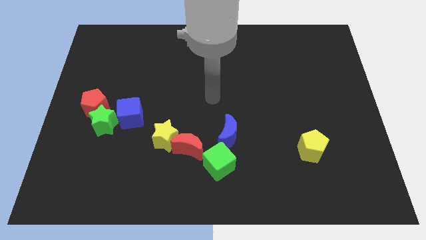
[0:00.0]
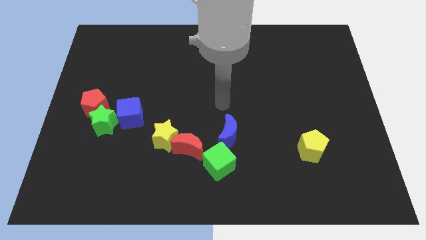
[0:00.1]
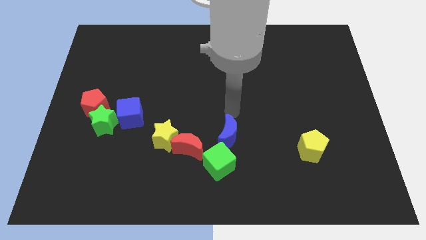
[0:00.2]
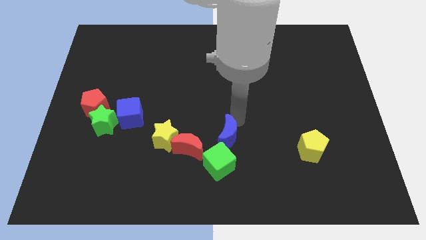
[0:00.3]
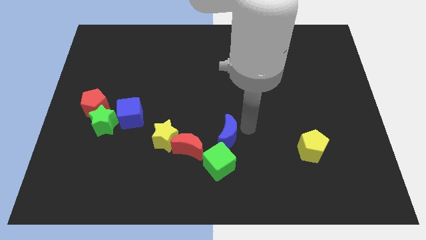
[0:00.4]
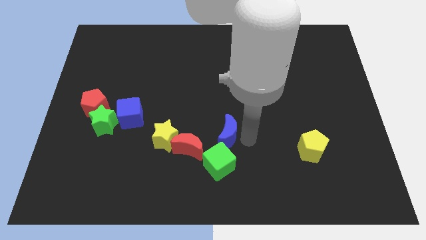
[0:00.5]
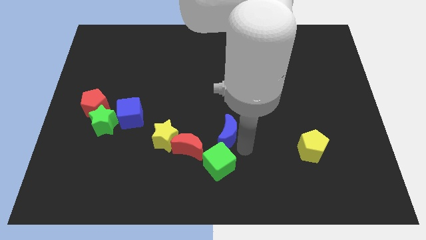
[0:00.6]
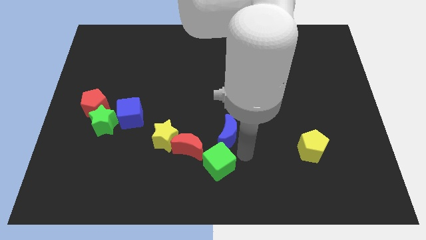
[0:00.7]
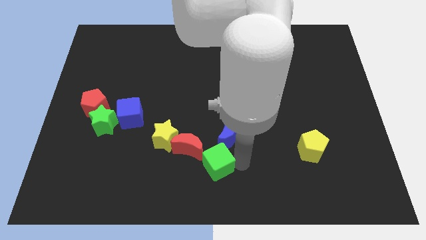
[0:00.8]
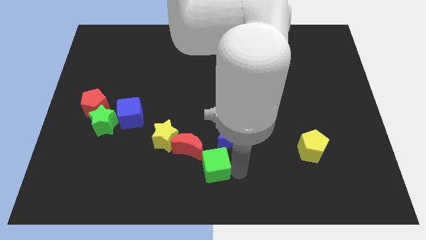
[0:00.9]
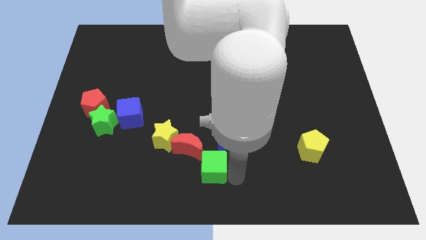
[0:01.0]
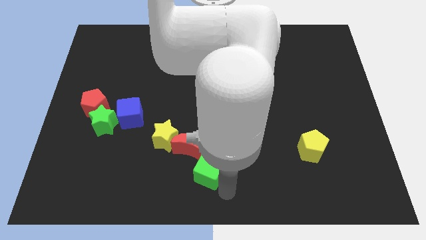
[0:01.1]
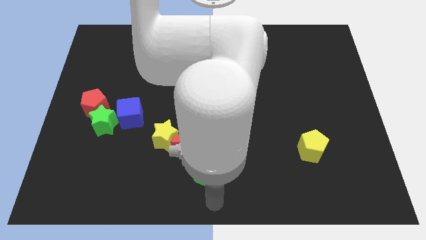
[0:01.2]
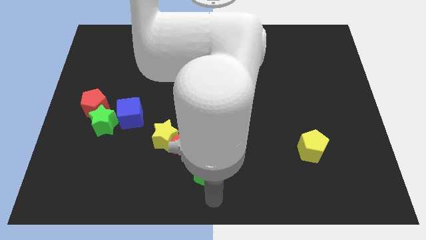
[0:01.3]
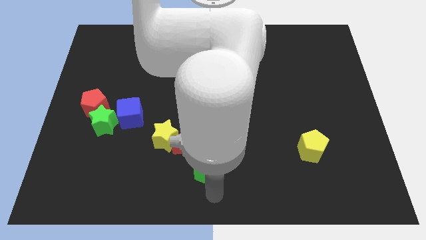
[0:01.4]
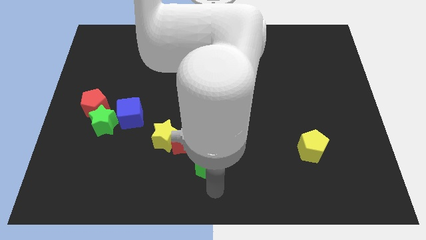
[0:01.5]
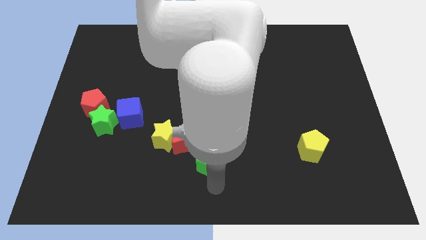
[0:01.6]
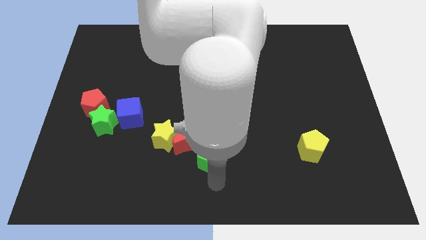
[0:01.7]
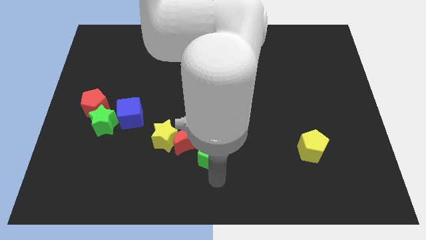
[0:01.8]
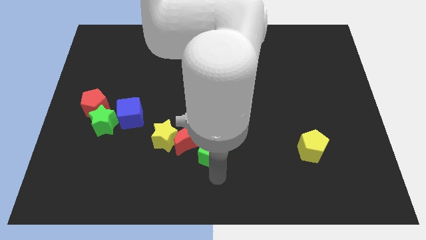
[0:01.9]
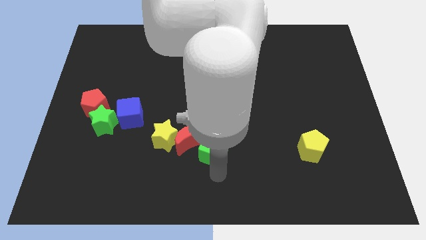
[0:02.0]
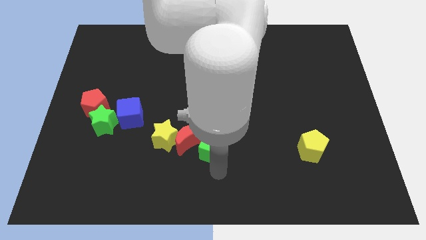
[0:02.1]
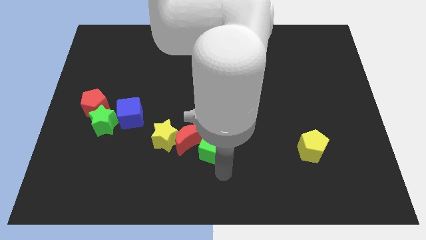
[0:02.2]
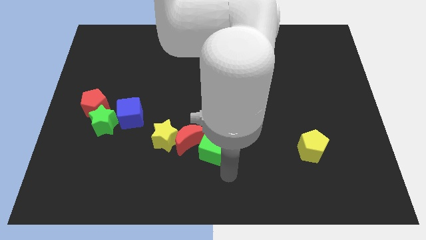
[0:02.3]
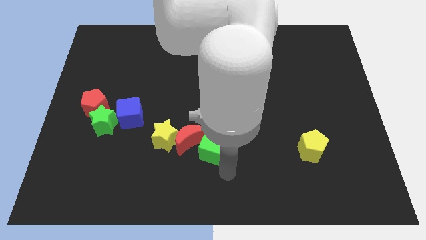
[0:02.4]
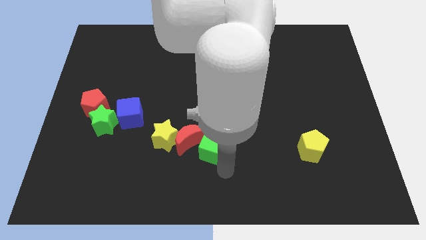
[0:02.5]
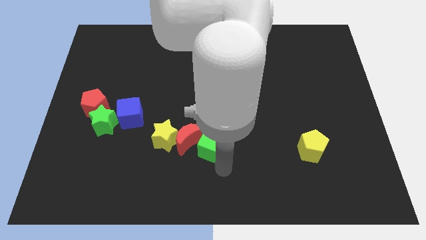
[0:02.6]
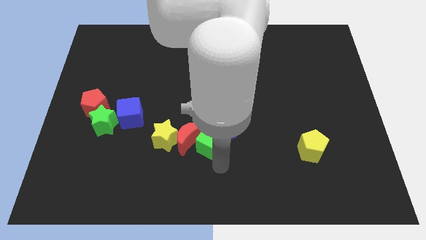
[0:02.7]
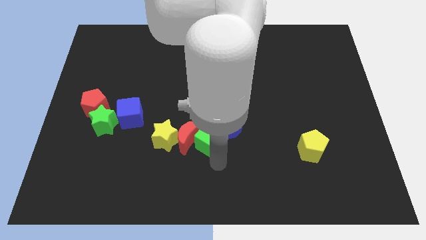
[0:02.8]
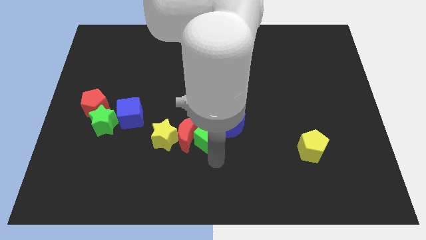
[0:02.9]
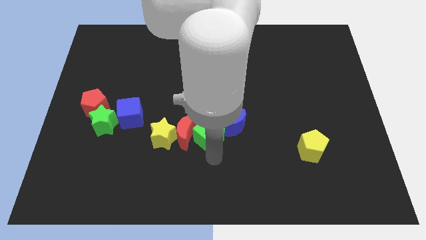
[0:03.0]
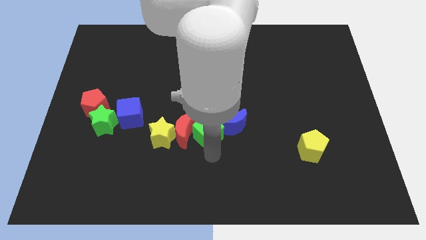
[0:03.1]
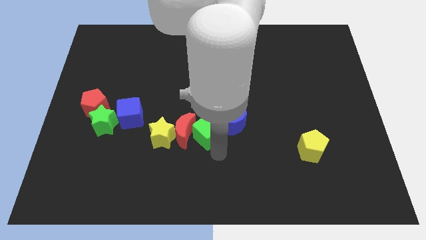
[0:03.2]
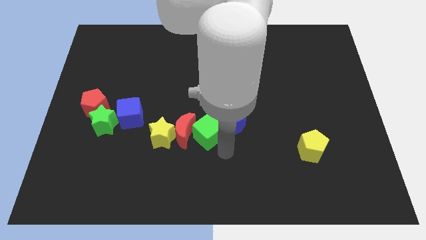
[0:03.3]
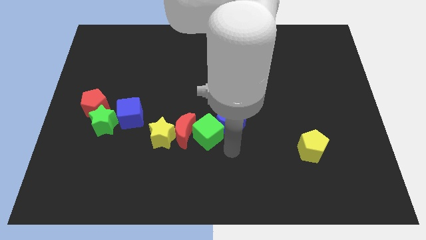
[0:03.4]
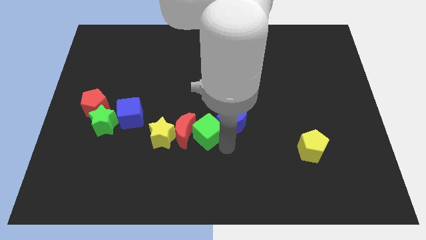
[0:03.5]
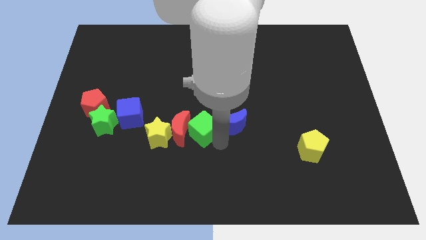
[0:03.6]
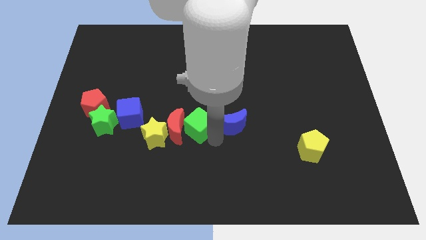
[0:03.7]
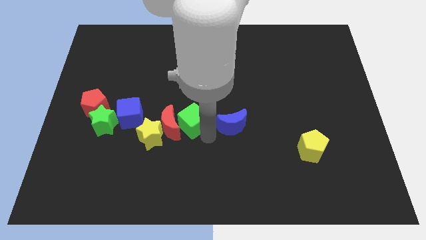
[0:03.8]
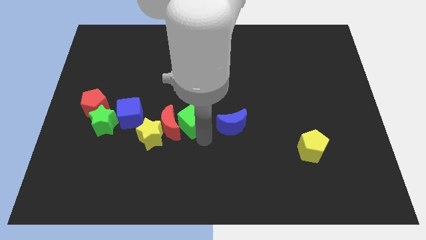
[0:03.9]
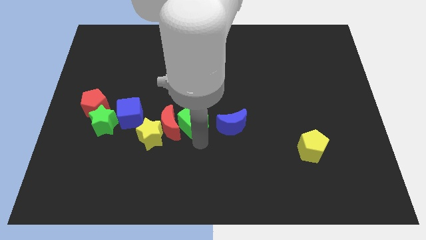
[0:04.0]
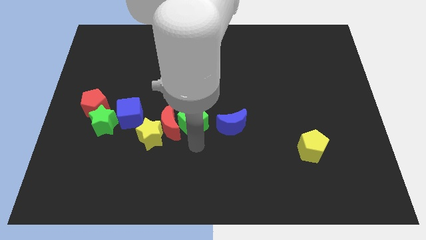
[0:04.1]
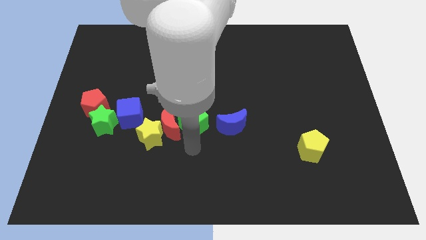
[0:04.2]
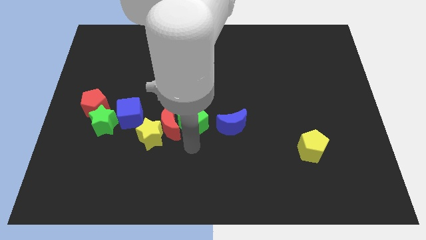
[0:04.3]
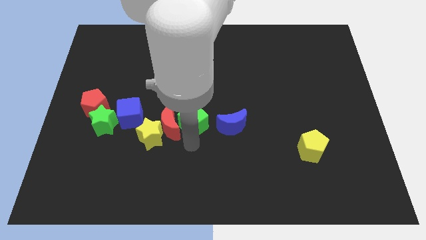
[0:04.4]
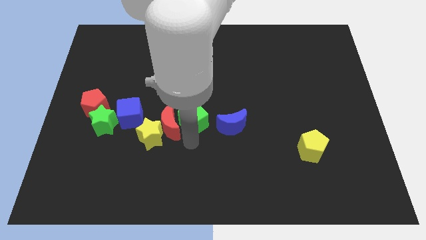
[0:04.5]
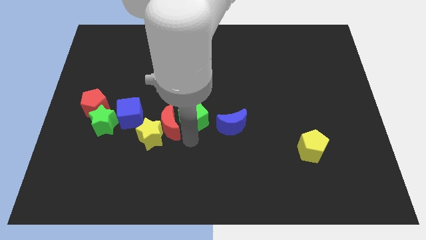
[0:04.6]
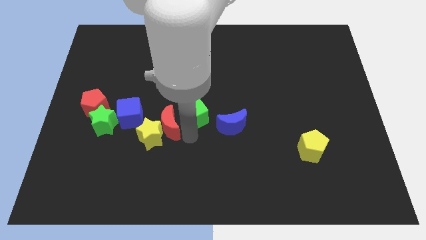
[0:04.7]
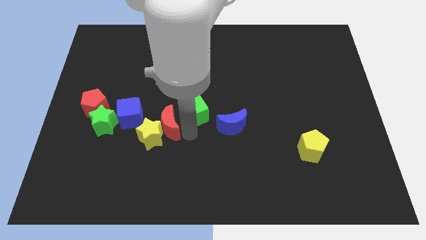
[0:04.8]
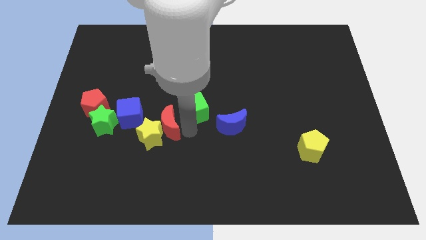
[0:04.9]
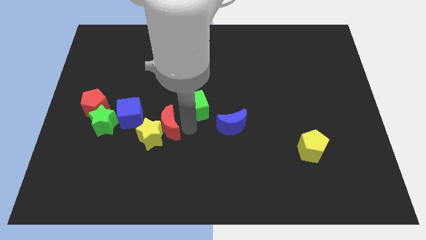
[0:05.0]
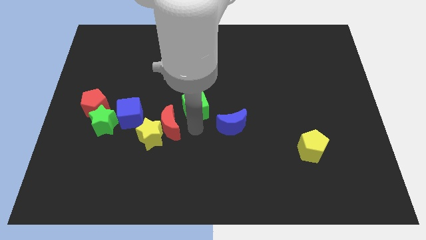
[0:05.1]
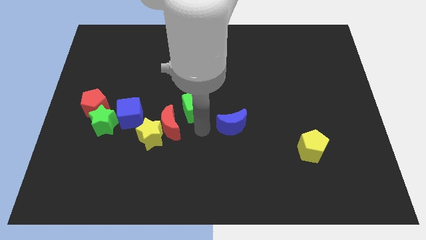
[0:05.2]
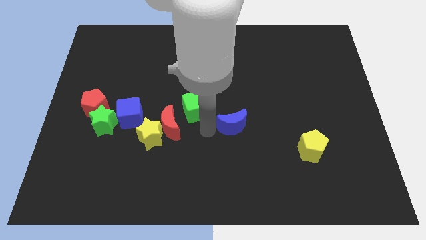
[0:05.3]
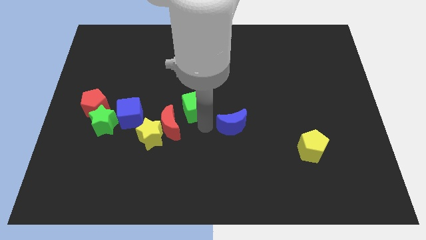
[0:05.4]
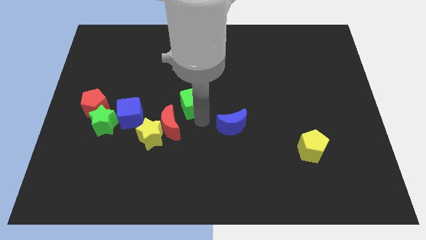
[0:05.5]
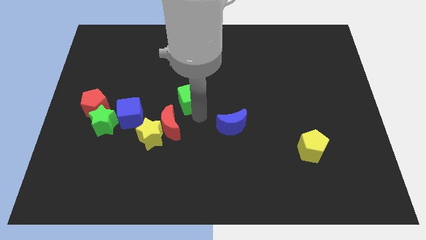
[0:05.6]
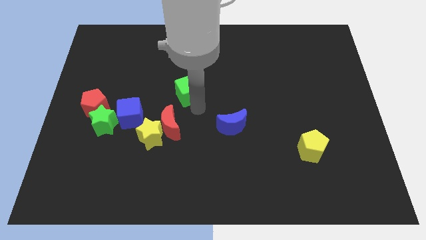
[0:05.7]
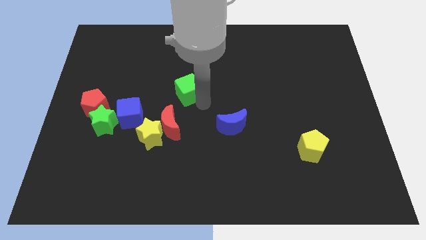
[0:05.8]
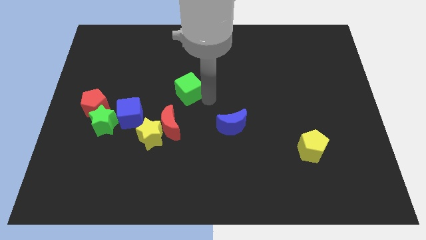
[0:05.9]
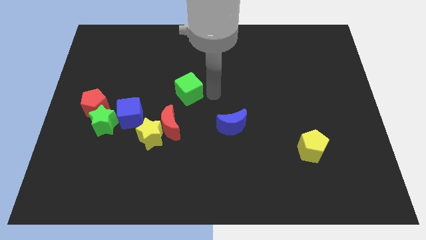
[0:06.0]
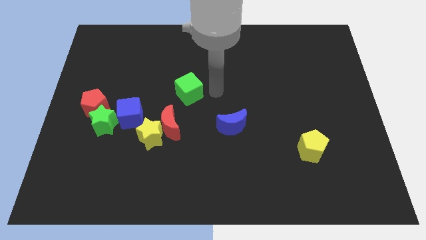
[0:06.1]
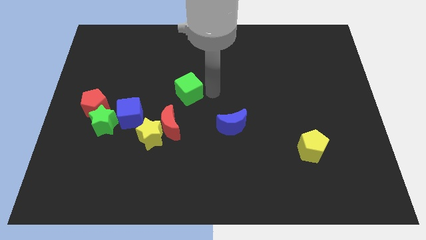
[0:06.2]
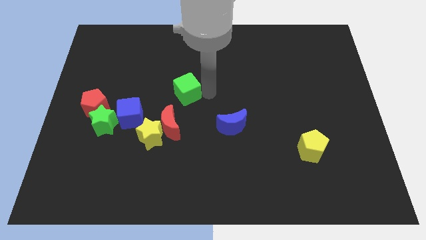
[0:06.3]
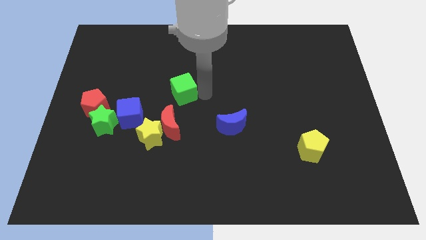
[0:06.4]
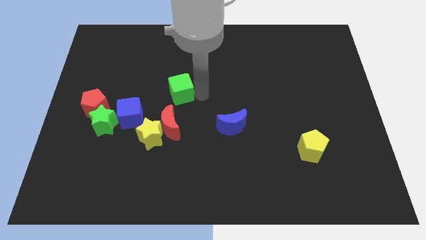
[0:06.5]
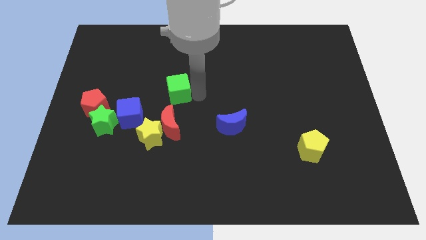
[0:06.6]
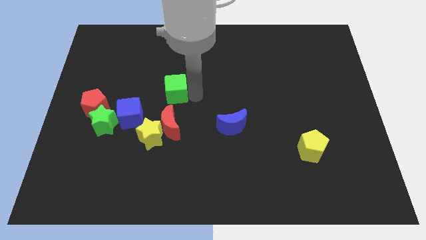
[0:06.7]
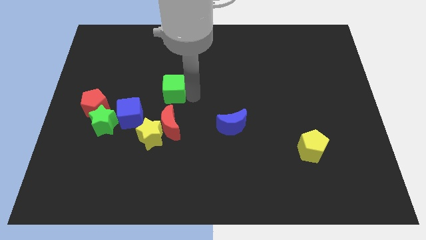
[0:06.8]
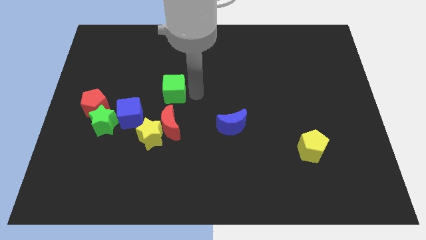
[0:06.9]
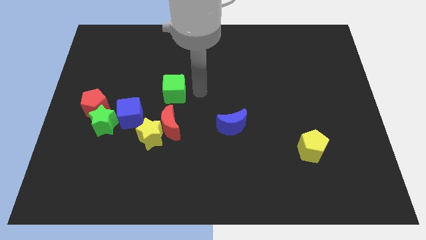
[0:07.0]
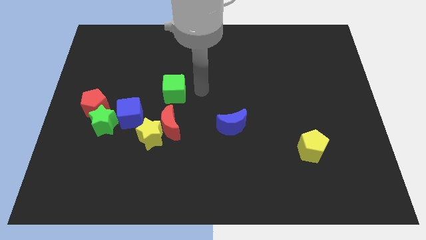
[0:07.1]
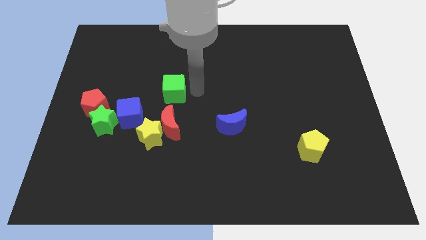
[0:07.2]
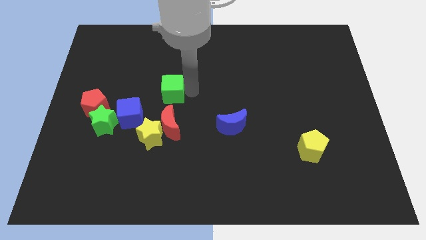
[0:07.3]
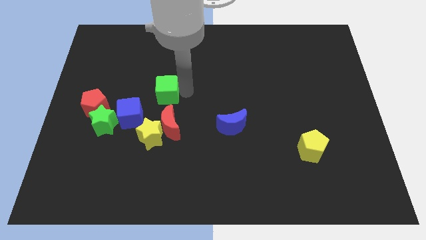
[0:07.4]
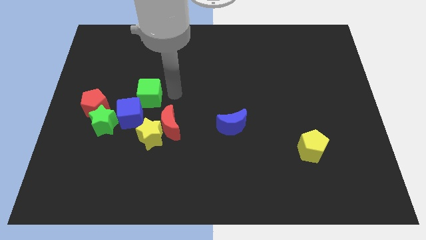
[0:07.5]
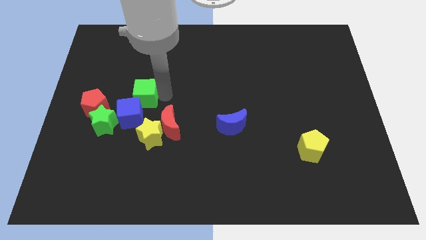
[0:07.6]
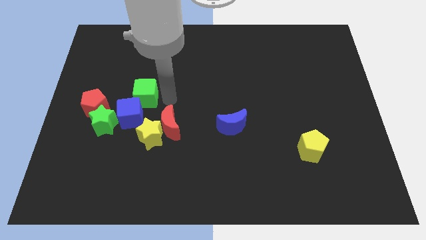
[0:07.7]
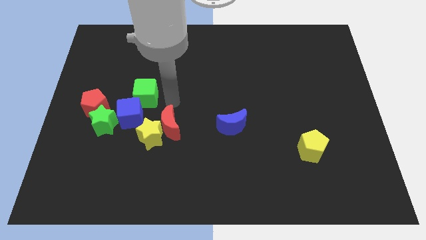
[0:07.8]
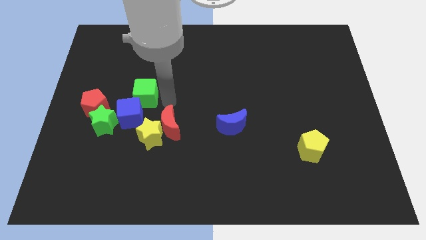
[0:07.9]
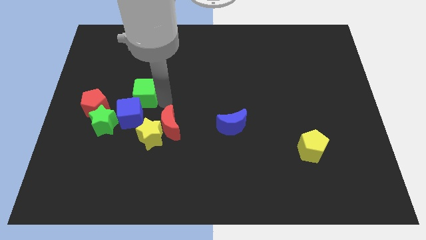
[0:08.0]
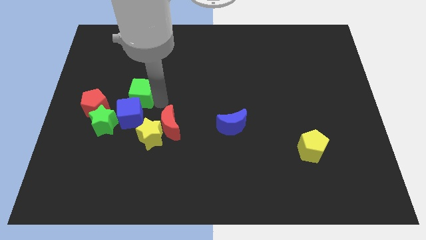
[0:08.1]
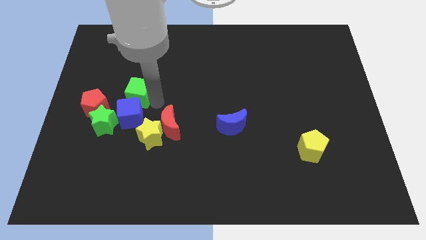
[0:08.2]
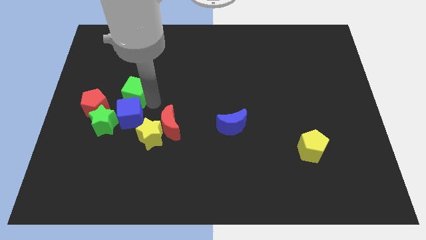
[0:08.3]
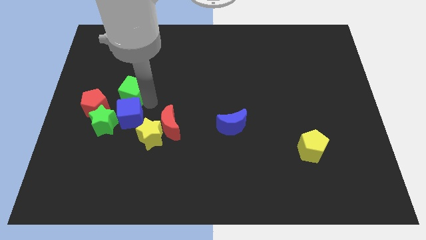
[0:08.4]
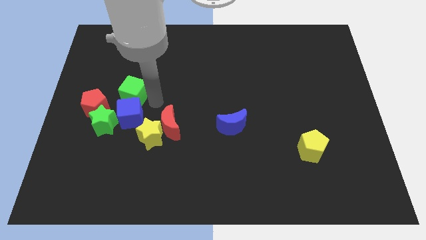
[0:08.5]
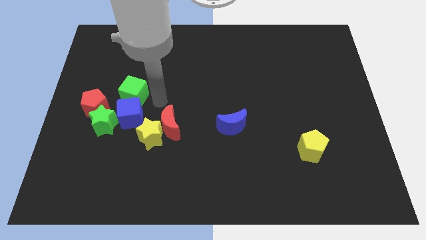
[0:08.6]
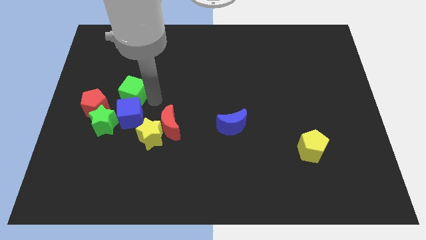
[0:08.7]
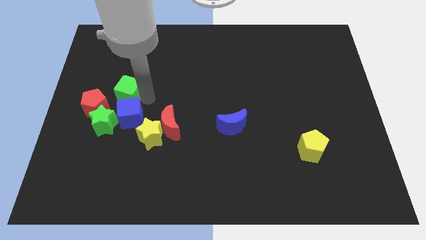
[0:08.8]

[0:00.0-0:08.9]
slide the green cube to the top side of the green star
